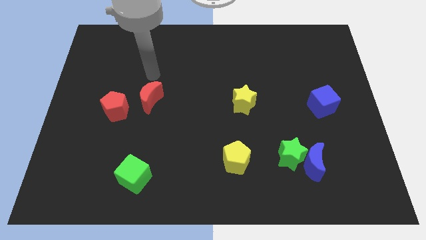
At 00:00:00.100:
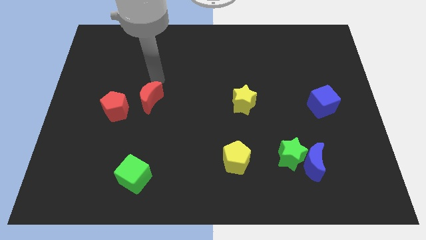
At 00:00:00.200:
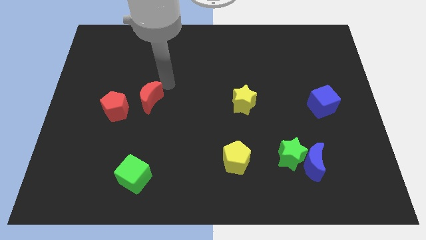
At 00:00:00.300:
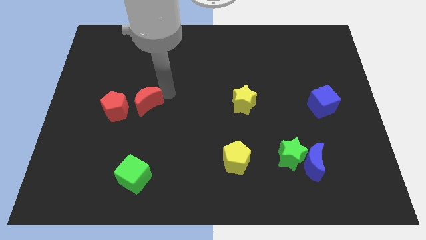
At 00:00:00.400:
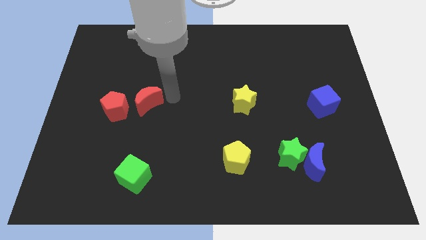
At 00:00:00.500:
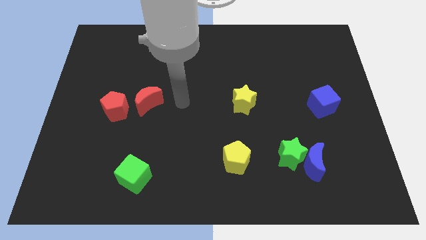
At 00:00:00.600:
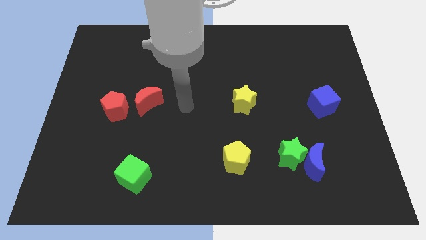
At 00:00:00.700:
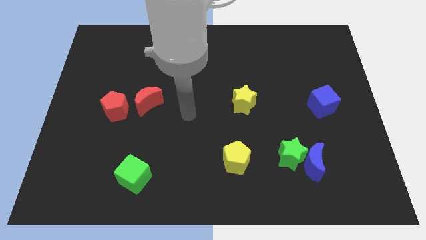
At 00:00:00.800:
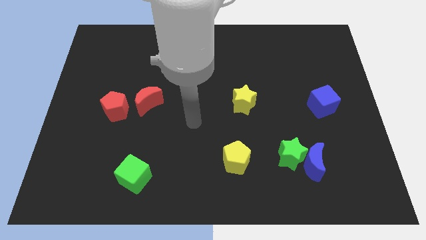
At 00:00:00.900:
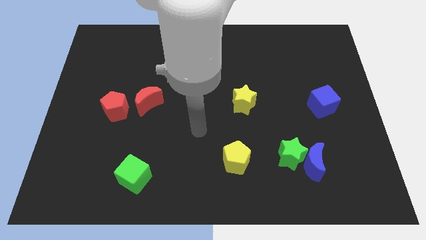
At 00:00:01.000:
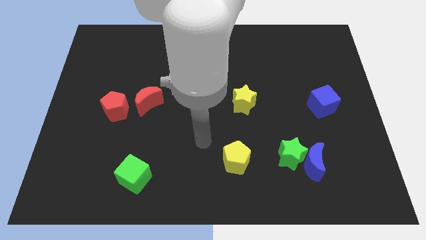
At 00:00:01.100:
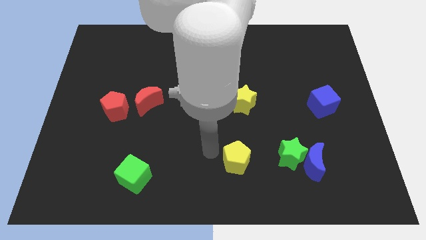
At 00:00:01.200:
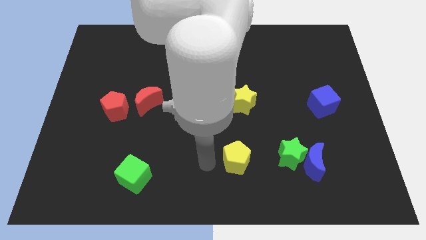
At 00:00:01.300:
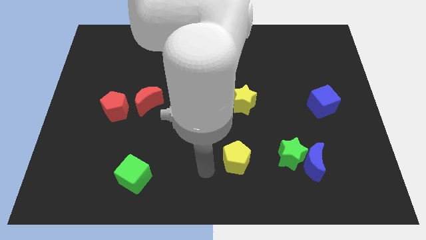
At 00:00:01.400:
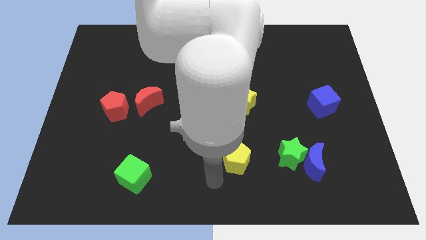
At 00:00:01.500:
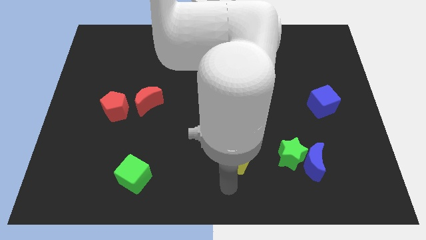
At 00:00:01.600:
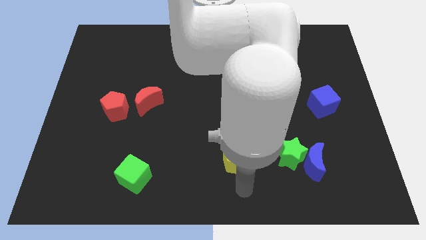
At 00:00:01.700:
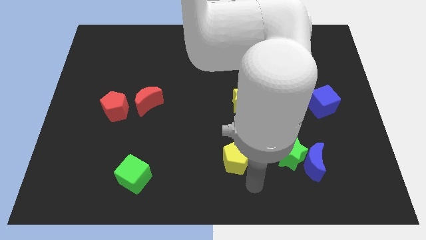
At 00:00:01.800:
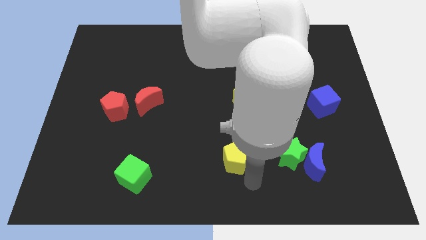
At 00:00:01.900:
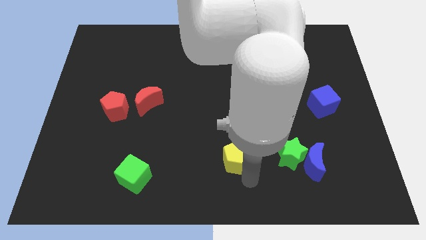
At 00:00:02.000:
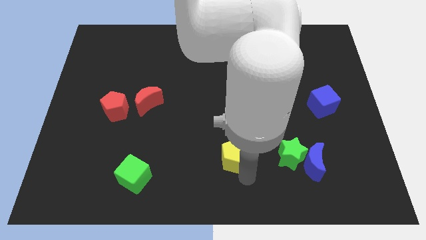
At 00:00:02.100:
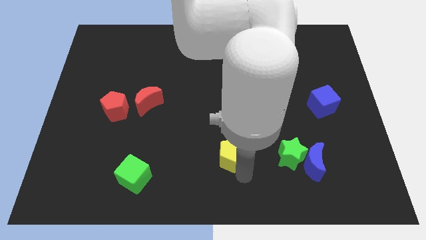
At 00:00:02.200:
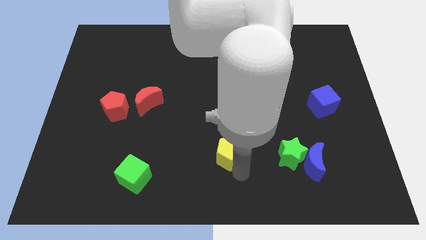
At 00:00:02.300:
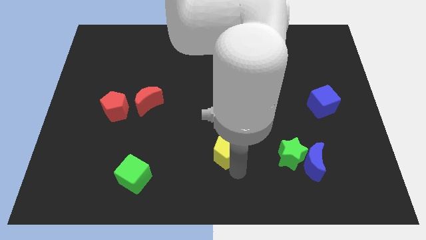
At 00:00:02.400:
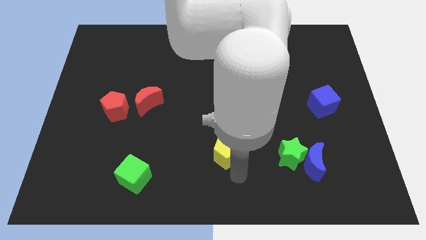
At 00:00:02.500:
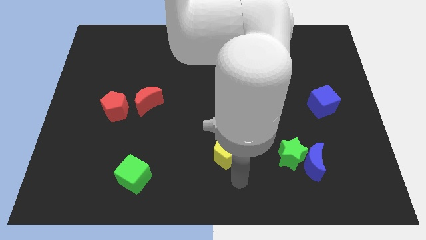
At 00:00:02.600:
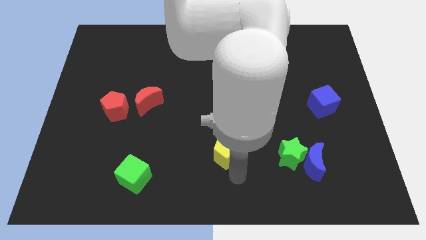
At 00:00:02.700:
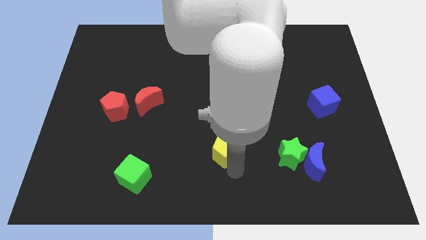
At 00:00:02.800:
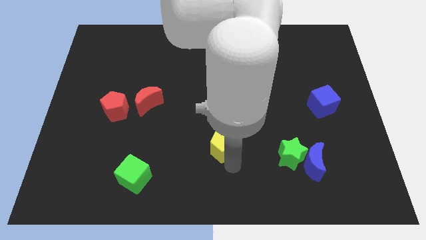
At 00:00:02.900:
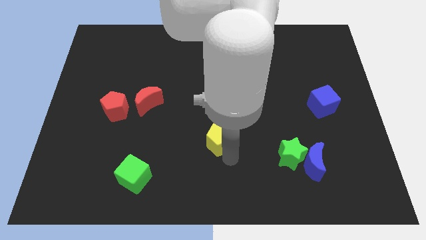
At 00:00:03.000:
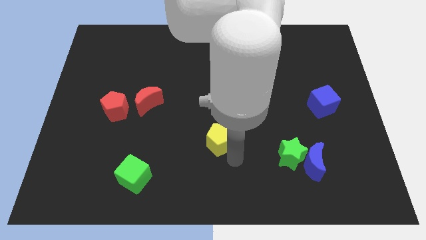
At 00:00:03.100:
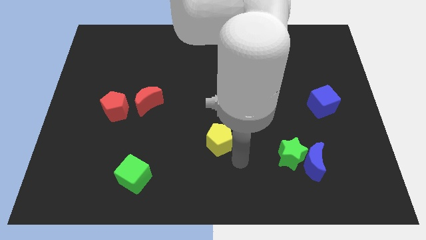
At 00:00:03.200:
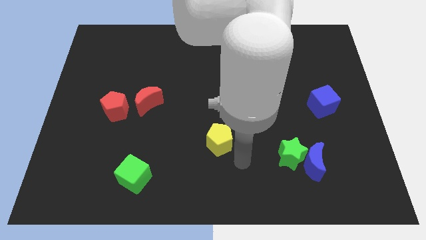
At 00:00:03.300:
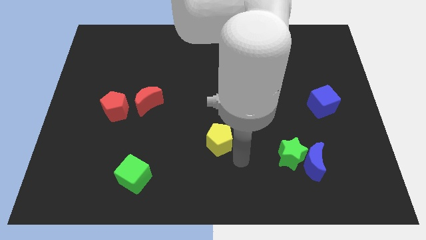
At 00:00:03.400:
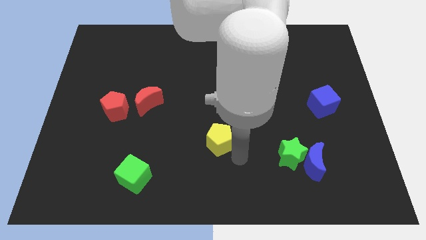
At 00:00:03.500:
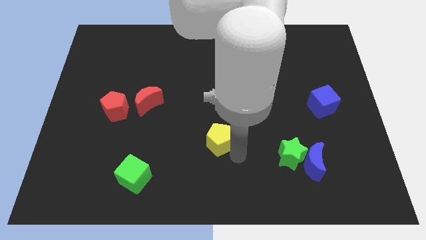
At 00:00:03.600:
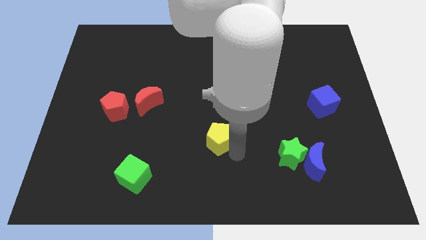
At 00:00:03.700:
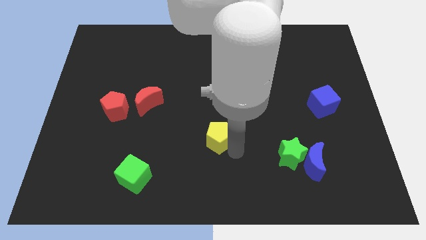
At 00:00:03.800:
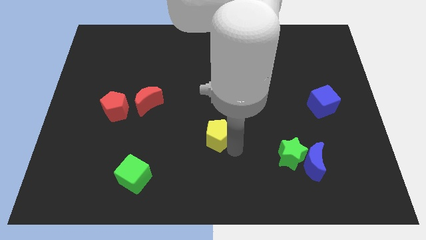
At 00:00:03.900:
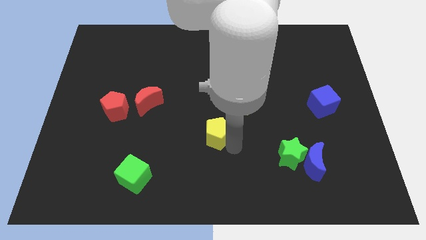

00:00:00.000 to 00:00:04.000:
move the yellow pentagon slightly upwards and left diagonally

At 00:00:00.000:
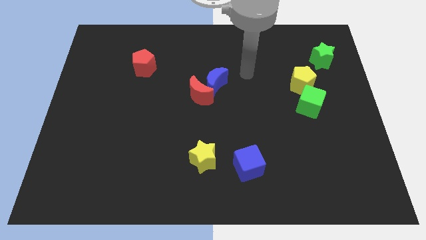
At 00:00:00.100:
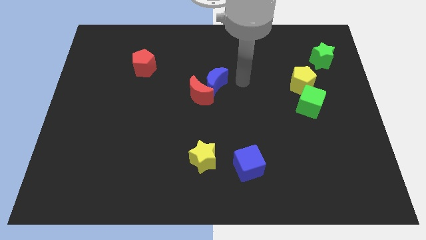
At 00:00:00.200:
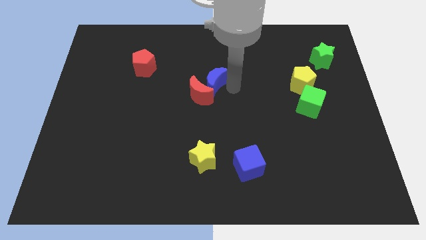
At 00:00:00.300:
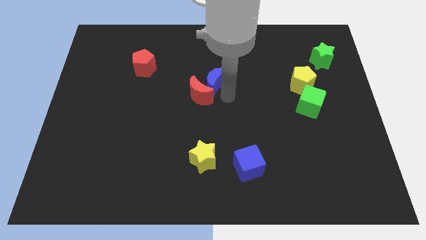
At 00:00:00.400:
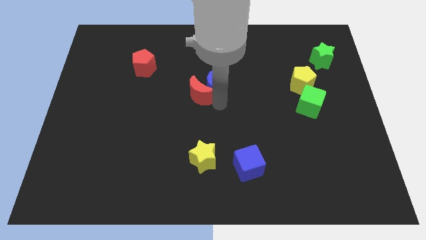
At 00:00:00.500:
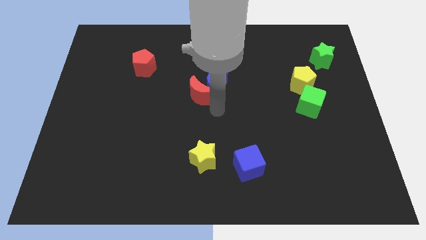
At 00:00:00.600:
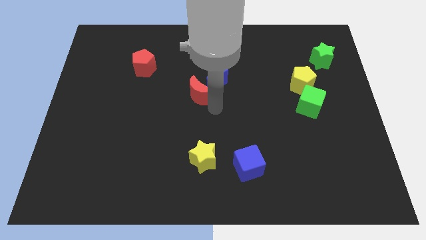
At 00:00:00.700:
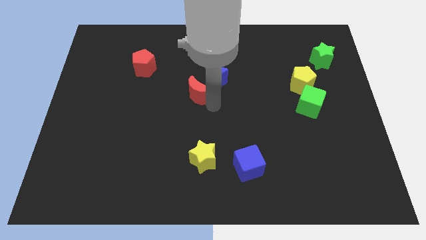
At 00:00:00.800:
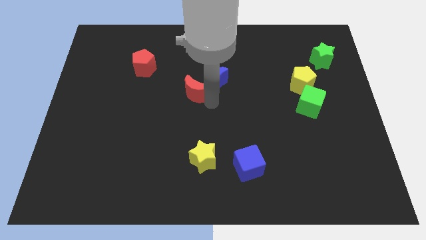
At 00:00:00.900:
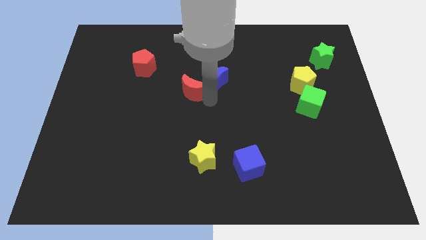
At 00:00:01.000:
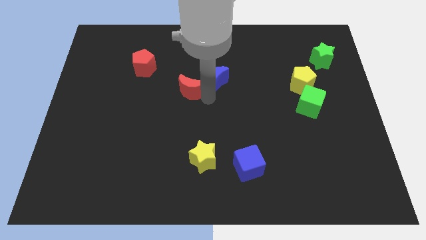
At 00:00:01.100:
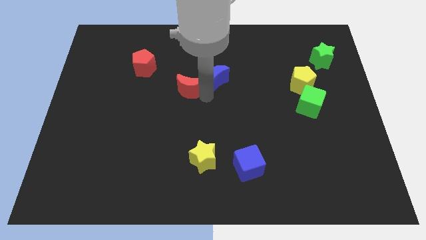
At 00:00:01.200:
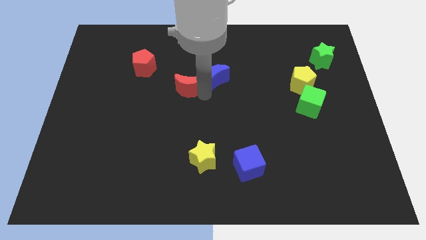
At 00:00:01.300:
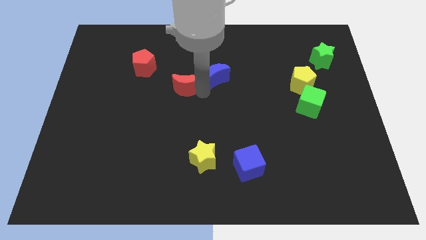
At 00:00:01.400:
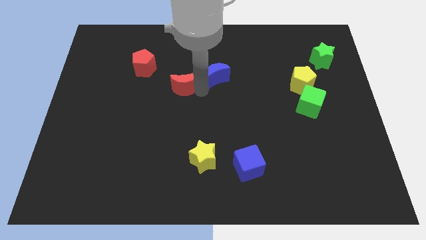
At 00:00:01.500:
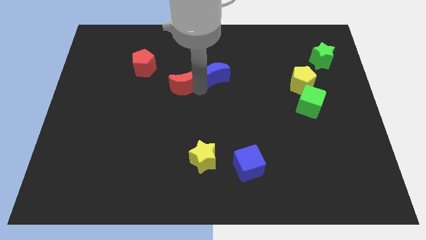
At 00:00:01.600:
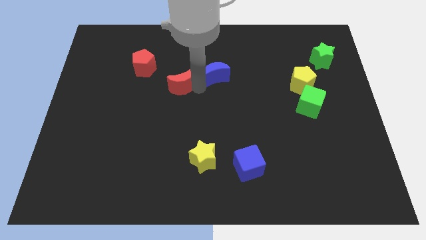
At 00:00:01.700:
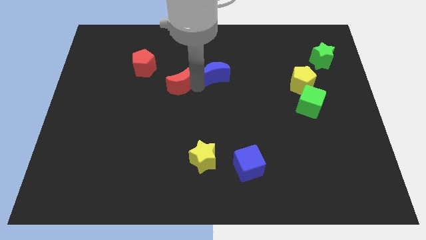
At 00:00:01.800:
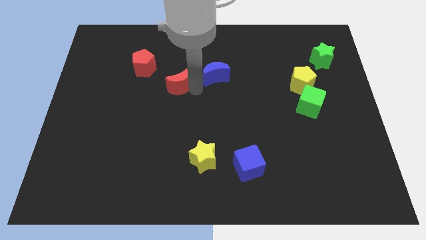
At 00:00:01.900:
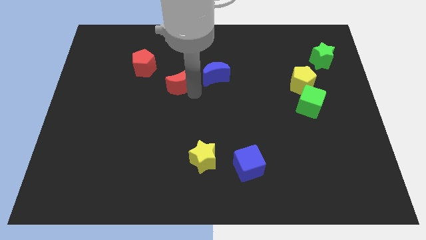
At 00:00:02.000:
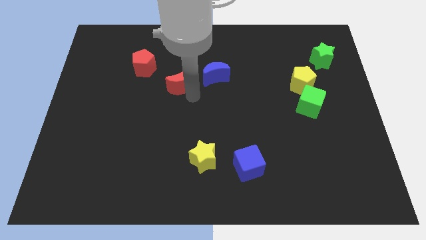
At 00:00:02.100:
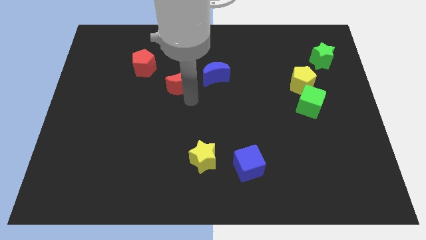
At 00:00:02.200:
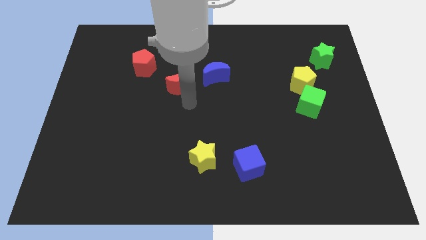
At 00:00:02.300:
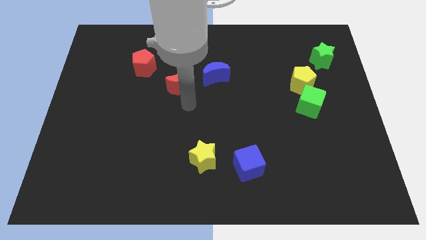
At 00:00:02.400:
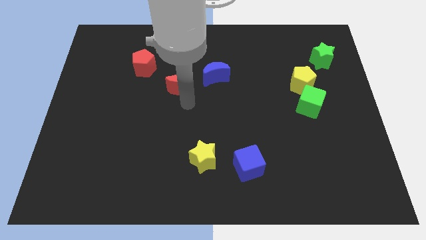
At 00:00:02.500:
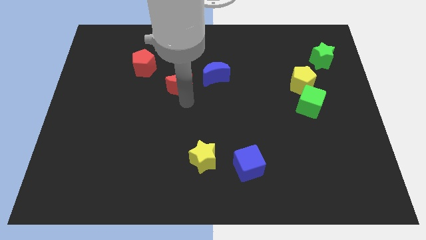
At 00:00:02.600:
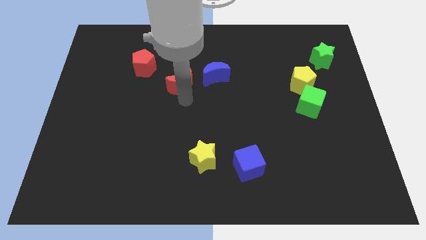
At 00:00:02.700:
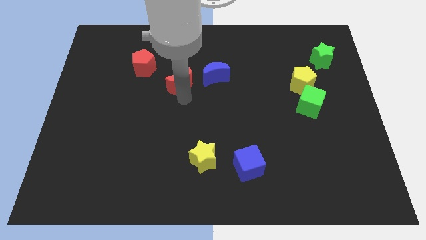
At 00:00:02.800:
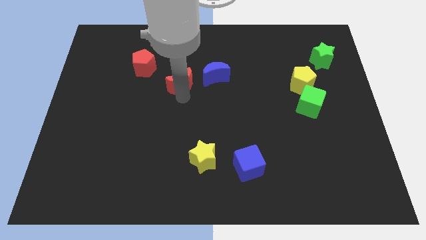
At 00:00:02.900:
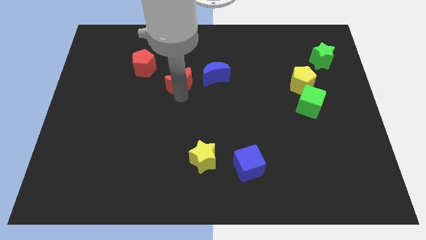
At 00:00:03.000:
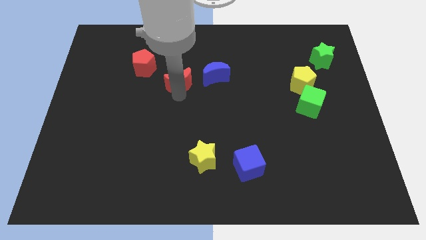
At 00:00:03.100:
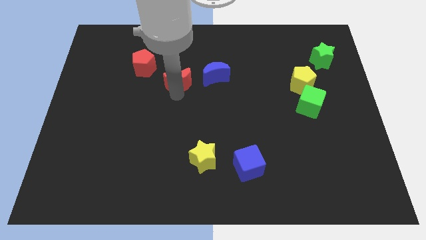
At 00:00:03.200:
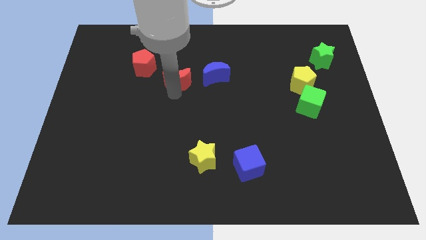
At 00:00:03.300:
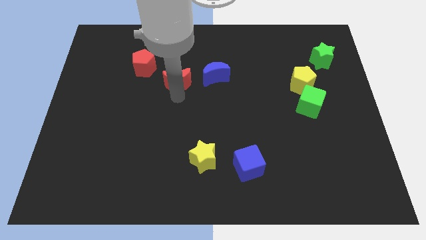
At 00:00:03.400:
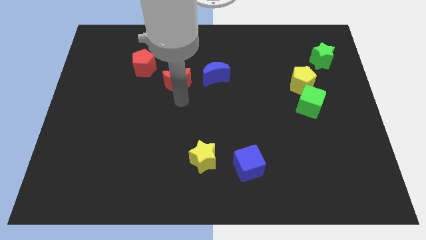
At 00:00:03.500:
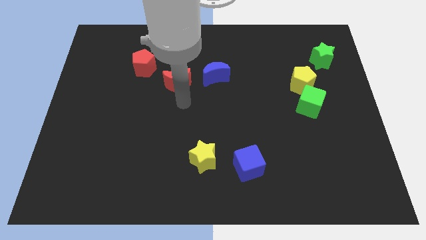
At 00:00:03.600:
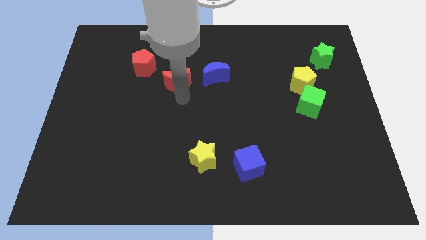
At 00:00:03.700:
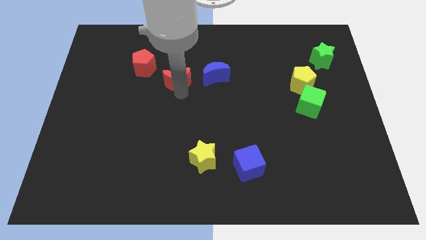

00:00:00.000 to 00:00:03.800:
slightly push the red moon diagonally upwards and to the left
